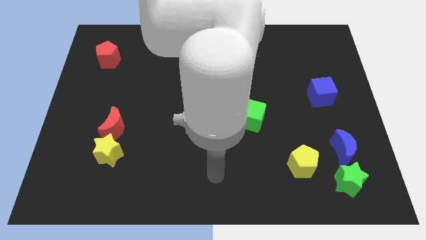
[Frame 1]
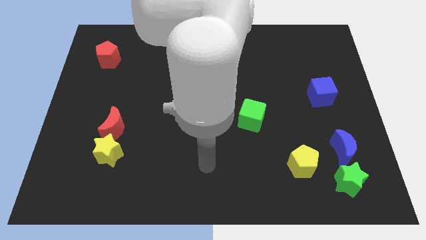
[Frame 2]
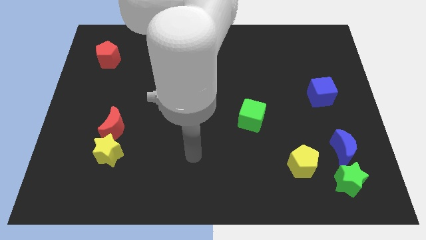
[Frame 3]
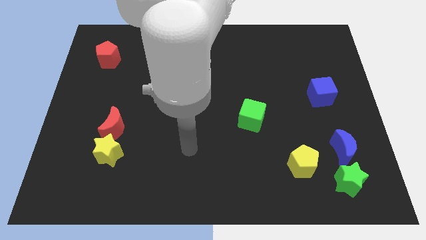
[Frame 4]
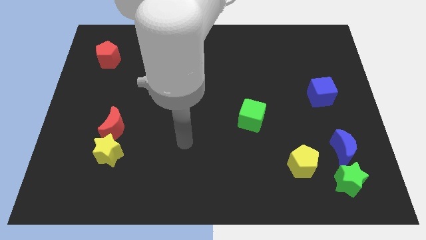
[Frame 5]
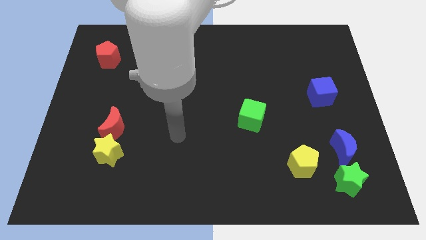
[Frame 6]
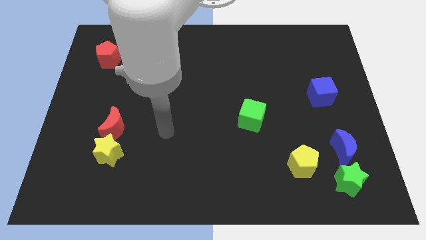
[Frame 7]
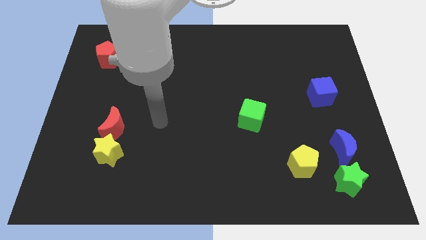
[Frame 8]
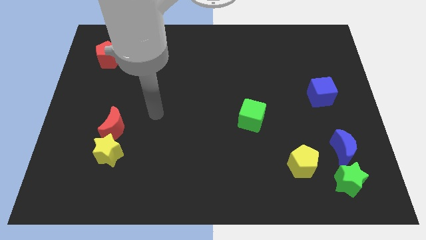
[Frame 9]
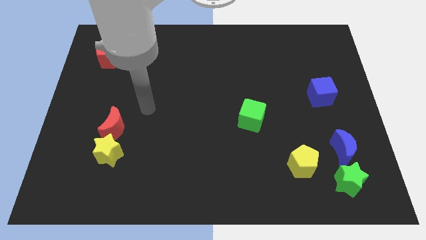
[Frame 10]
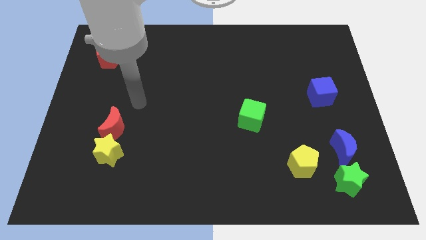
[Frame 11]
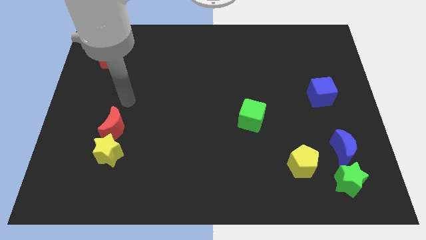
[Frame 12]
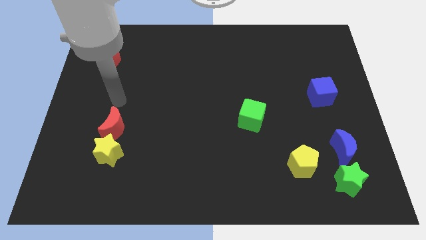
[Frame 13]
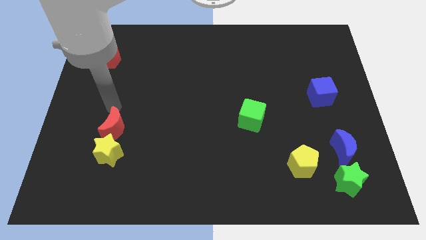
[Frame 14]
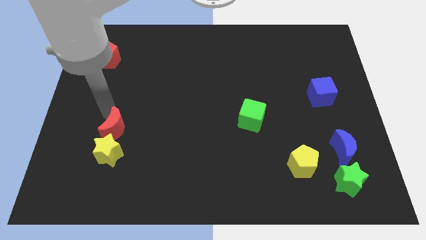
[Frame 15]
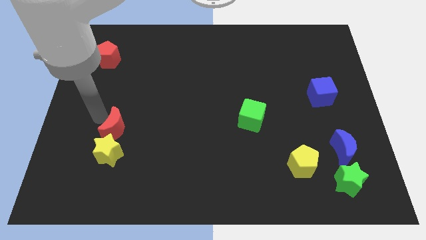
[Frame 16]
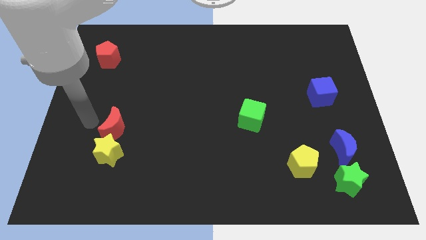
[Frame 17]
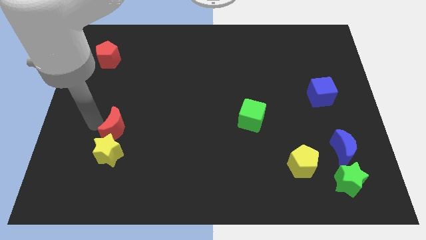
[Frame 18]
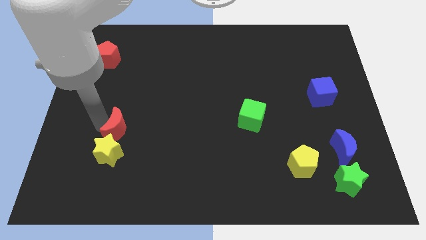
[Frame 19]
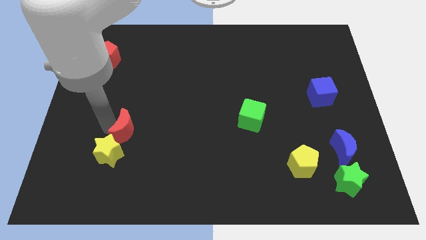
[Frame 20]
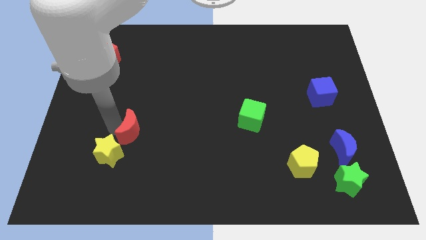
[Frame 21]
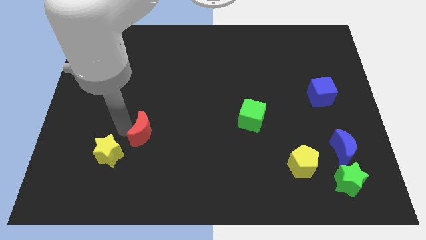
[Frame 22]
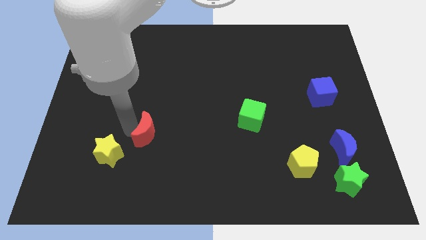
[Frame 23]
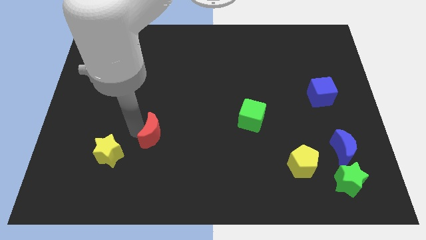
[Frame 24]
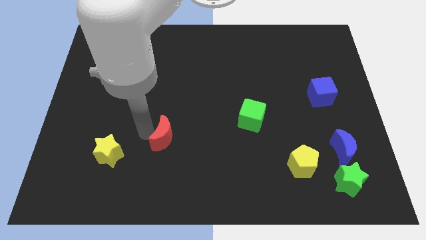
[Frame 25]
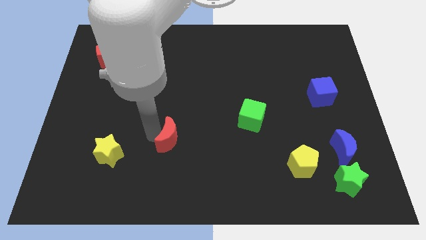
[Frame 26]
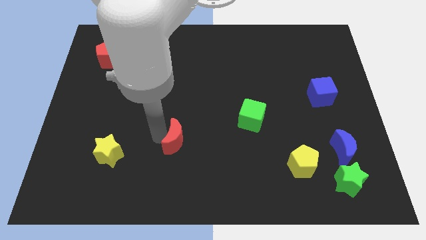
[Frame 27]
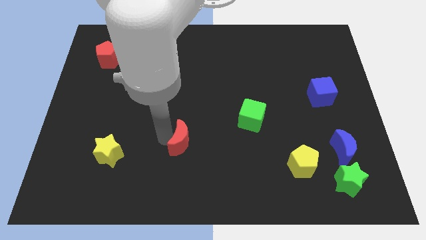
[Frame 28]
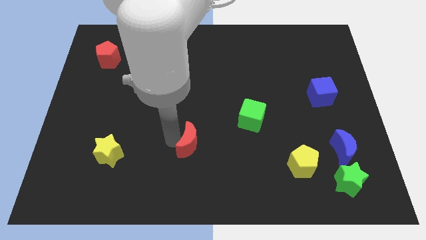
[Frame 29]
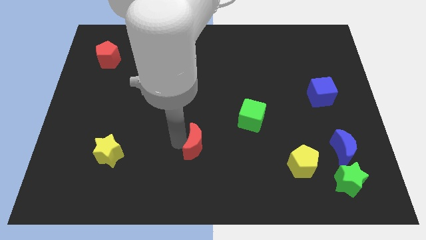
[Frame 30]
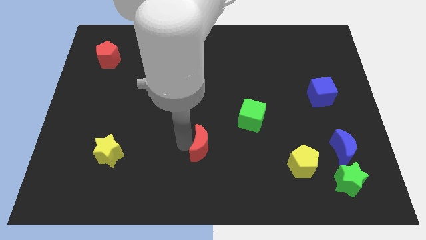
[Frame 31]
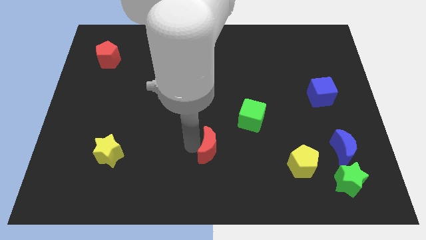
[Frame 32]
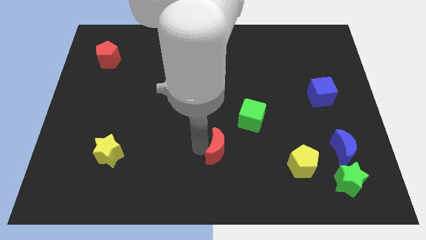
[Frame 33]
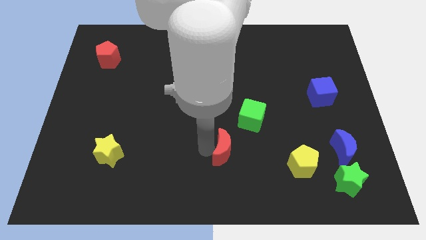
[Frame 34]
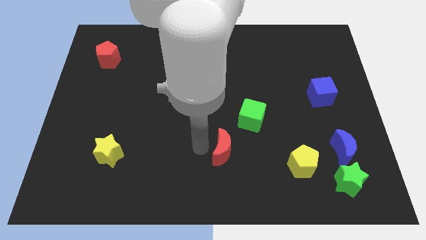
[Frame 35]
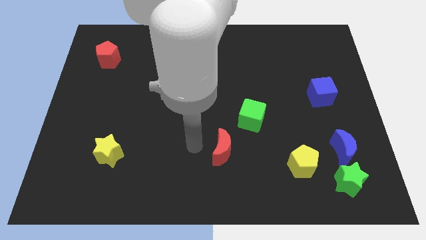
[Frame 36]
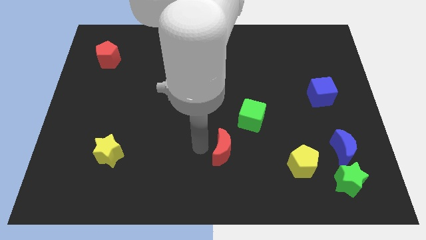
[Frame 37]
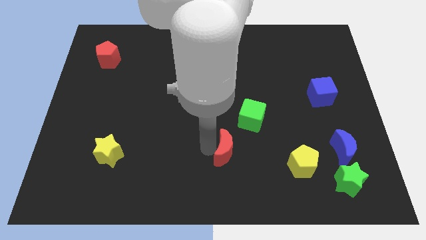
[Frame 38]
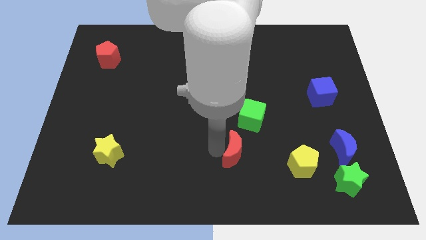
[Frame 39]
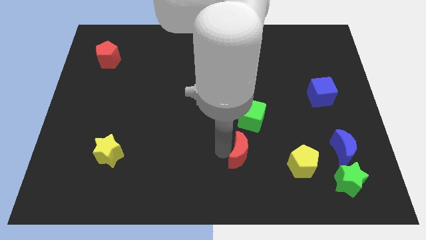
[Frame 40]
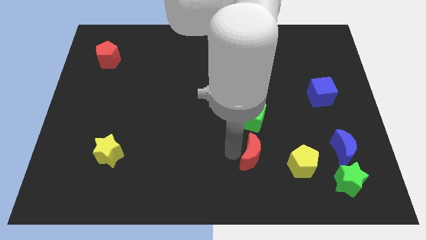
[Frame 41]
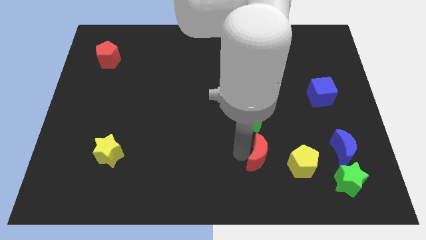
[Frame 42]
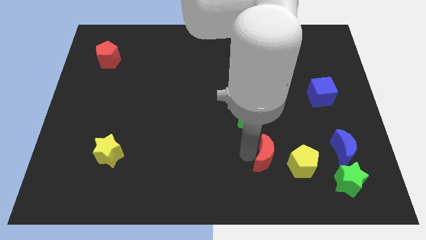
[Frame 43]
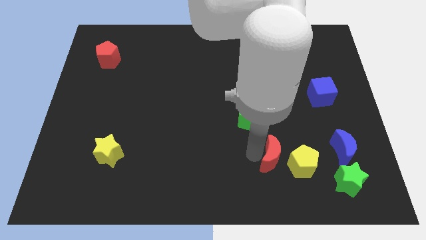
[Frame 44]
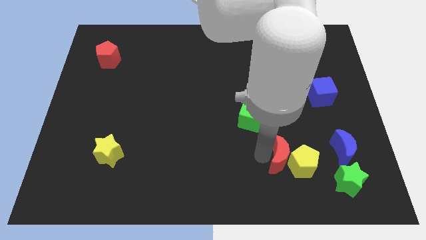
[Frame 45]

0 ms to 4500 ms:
move the red moon close to the yellow pentagon

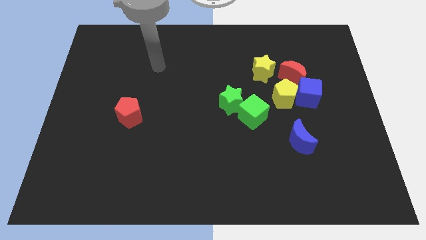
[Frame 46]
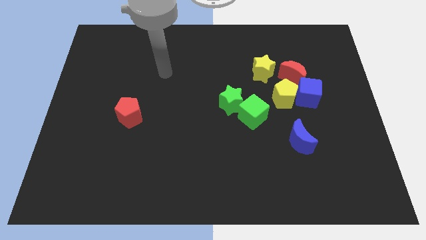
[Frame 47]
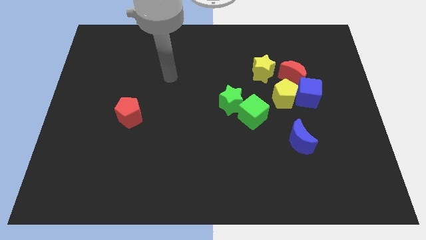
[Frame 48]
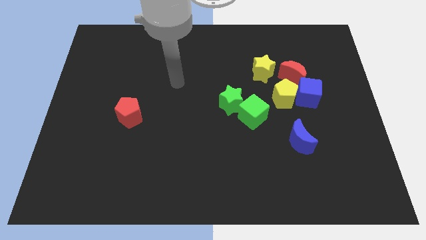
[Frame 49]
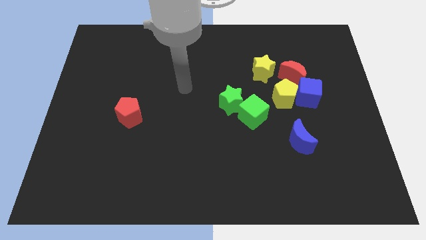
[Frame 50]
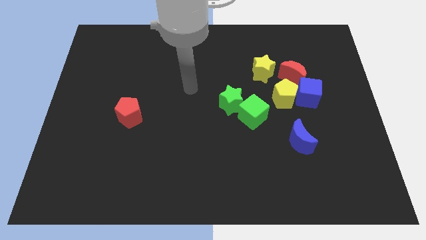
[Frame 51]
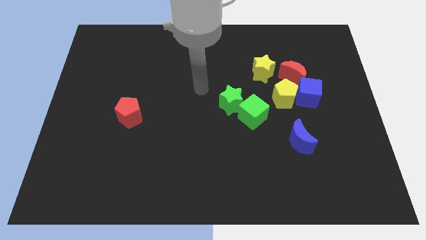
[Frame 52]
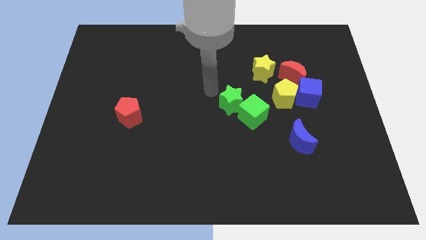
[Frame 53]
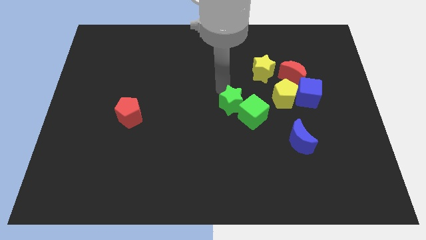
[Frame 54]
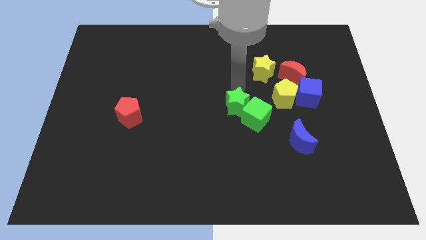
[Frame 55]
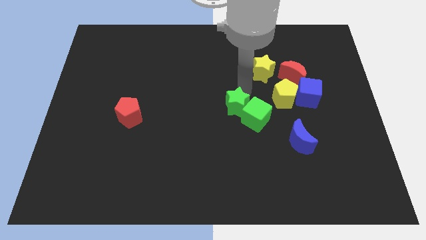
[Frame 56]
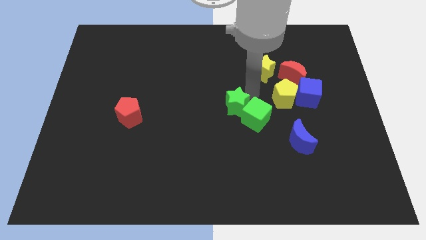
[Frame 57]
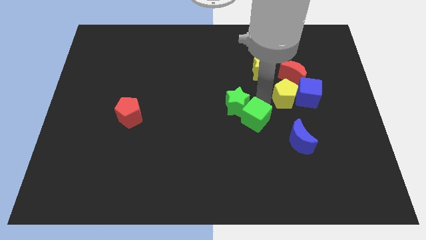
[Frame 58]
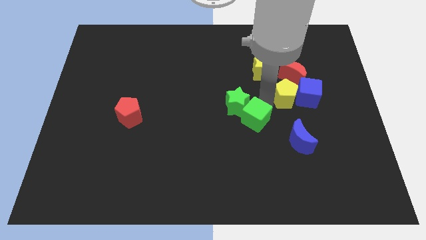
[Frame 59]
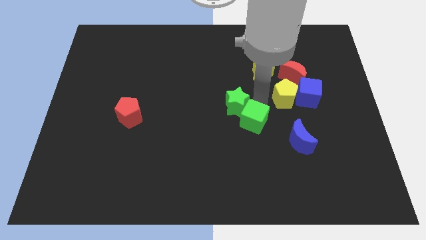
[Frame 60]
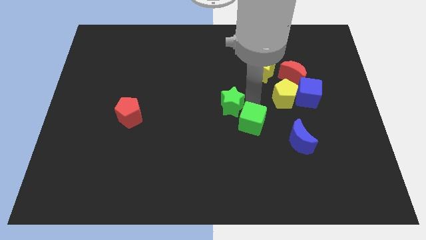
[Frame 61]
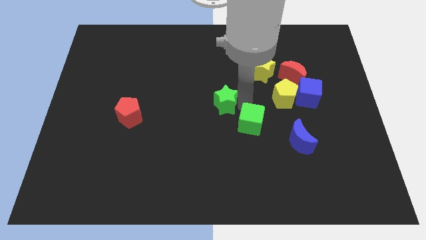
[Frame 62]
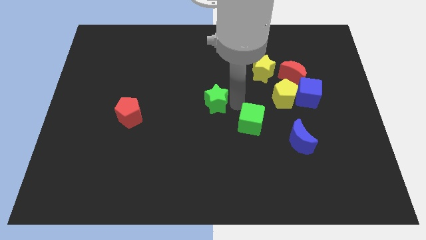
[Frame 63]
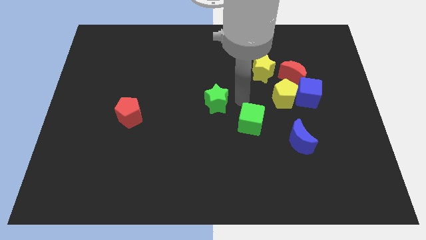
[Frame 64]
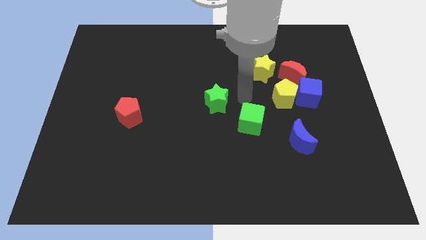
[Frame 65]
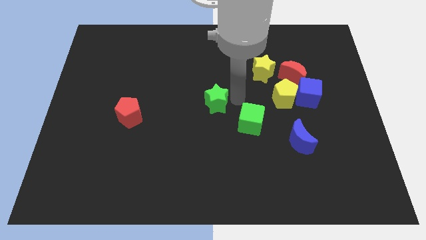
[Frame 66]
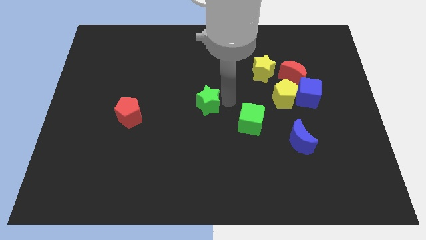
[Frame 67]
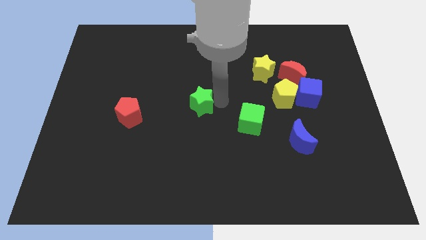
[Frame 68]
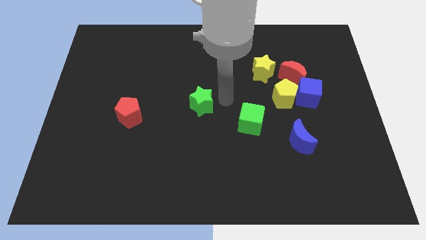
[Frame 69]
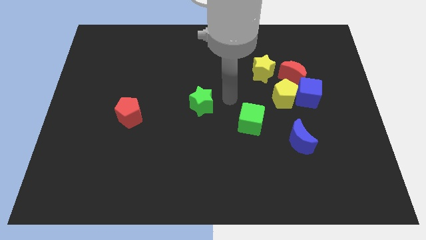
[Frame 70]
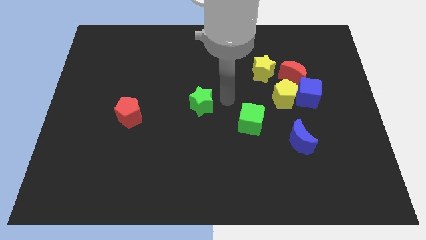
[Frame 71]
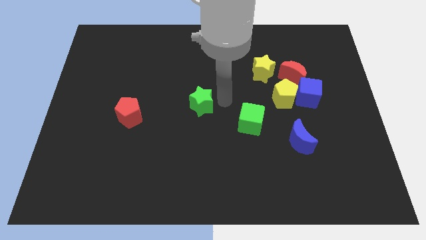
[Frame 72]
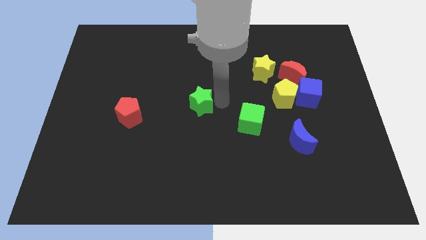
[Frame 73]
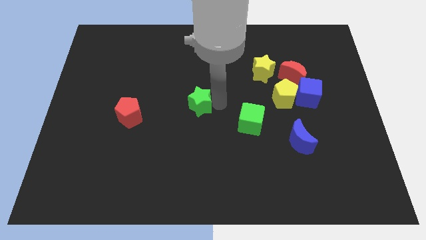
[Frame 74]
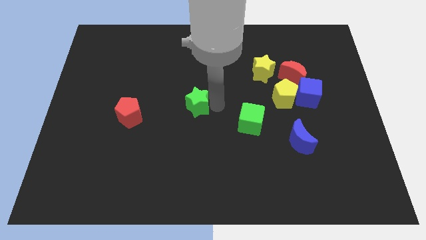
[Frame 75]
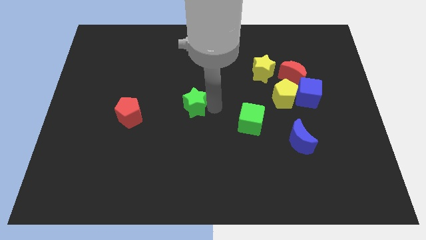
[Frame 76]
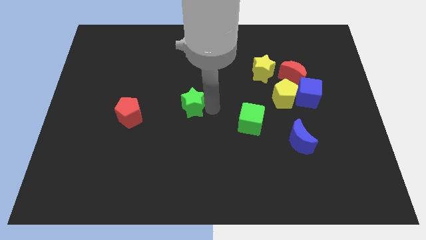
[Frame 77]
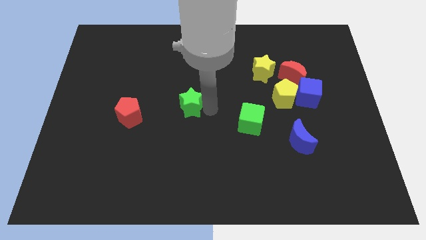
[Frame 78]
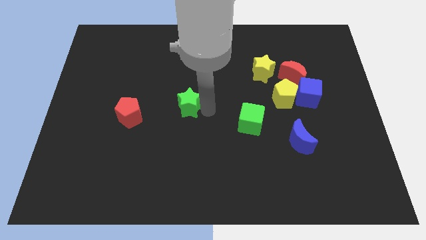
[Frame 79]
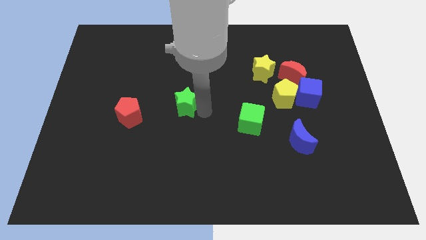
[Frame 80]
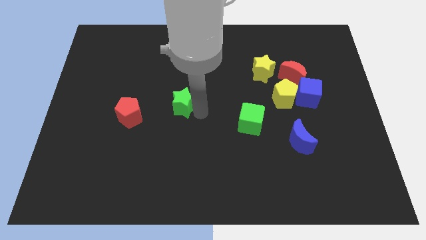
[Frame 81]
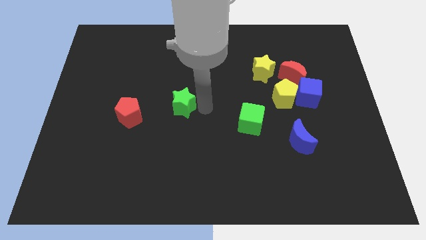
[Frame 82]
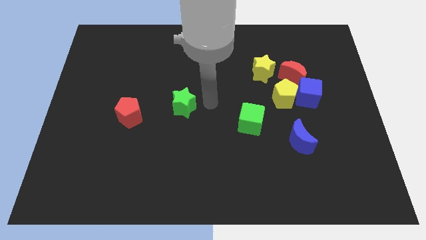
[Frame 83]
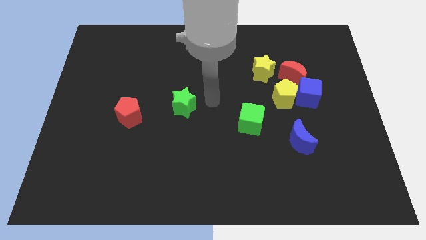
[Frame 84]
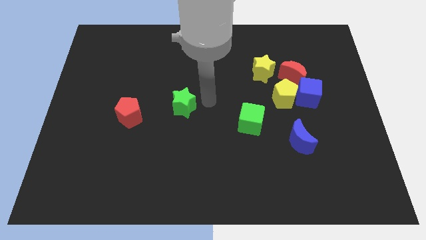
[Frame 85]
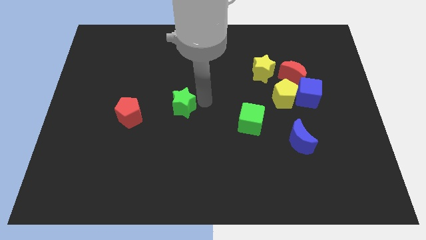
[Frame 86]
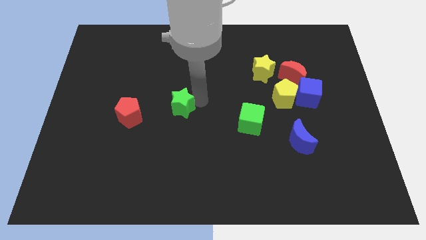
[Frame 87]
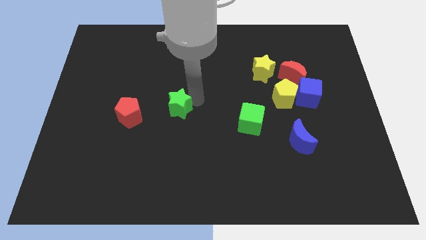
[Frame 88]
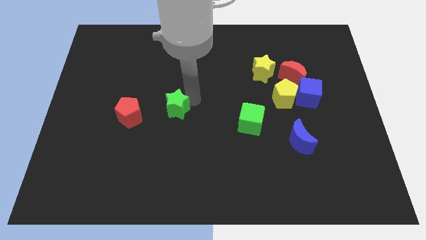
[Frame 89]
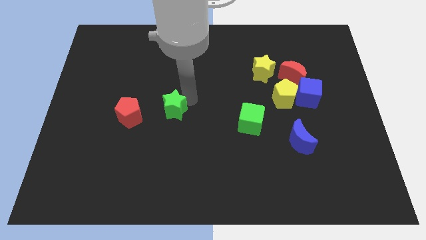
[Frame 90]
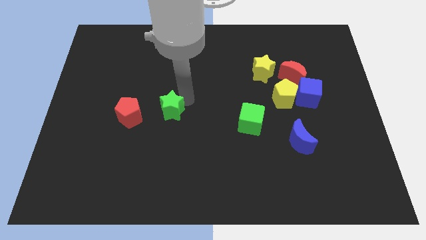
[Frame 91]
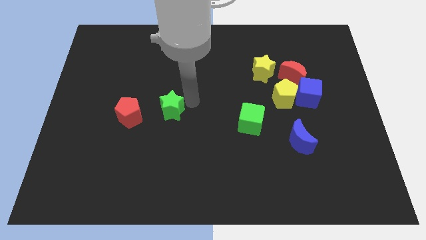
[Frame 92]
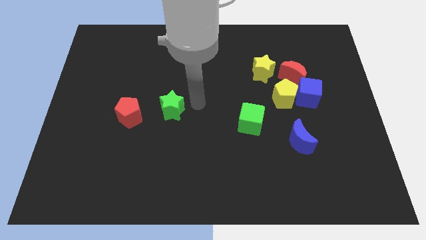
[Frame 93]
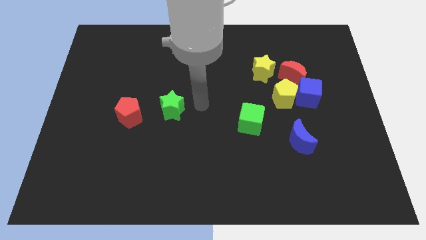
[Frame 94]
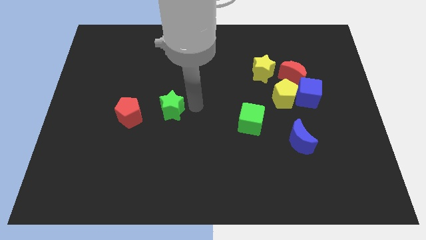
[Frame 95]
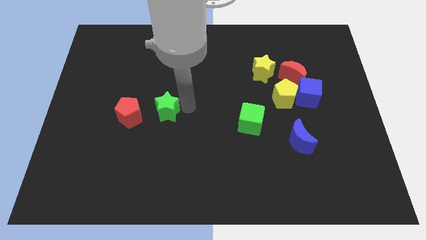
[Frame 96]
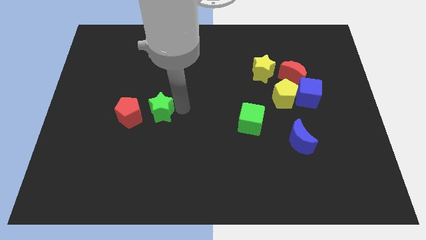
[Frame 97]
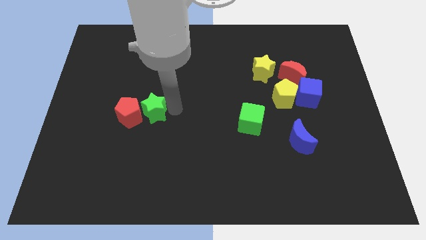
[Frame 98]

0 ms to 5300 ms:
push the green star towards the red pentagon
